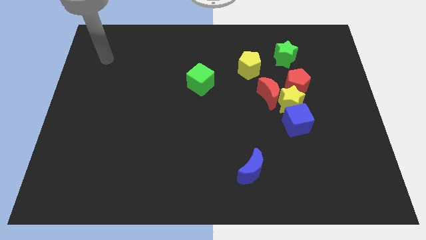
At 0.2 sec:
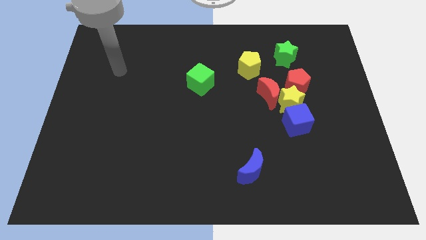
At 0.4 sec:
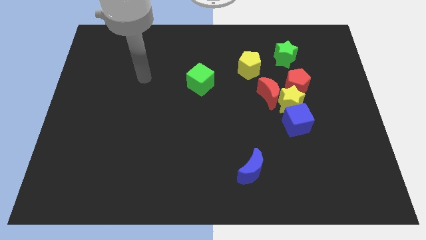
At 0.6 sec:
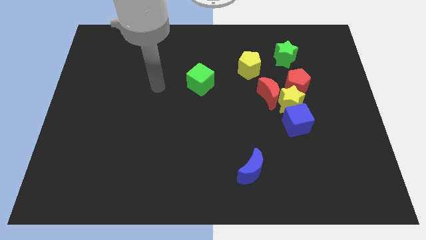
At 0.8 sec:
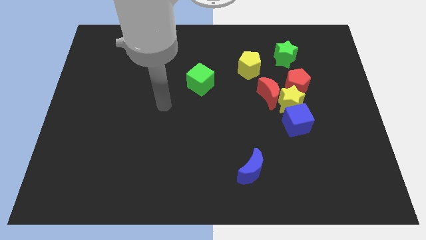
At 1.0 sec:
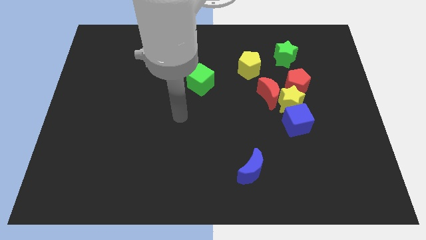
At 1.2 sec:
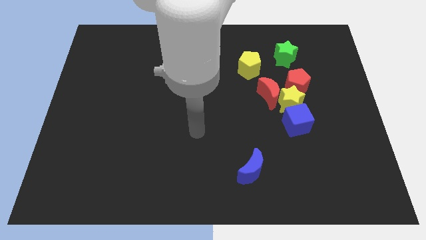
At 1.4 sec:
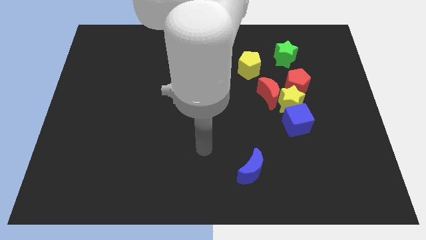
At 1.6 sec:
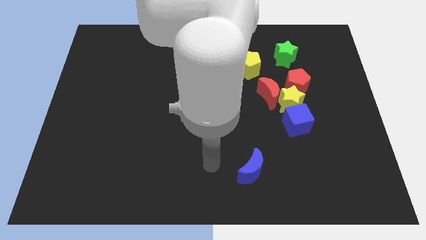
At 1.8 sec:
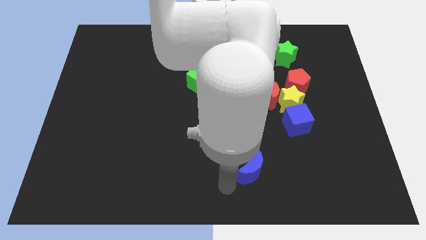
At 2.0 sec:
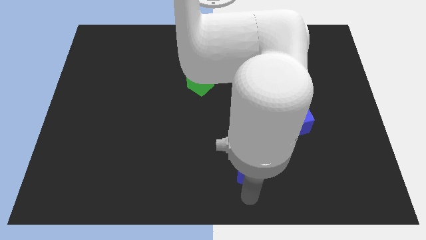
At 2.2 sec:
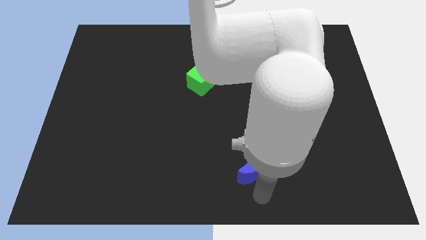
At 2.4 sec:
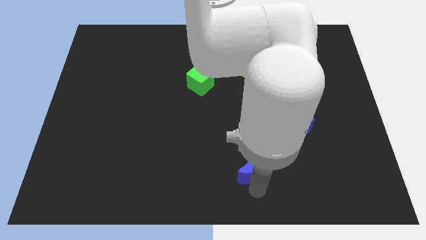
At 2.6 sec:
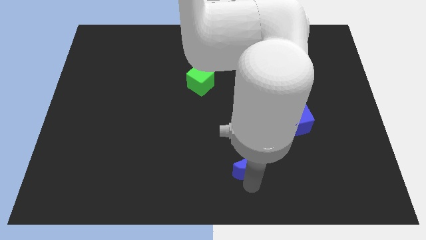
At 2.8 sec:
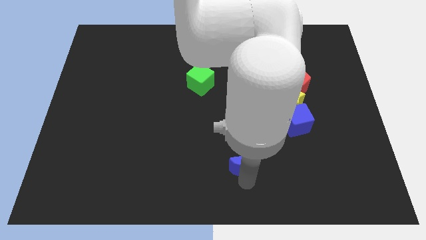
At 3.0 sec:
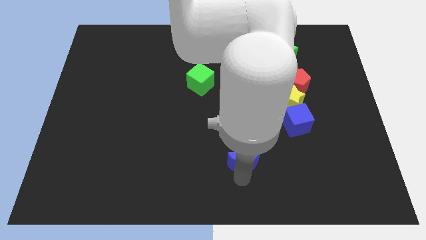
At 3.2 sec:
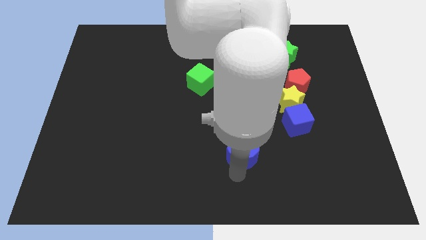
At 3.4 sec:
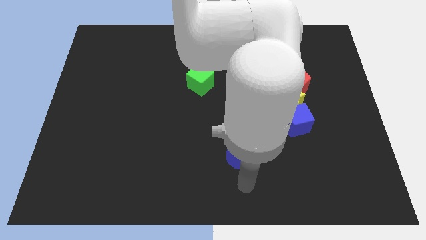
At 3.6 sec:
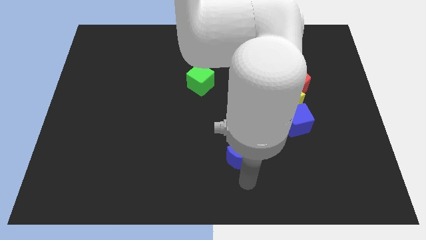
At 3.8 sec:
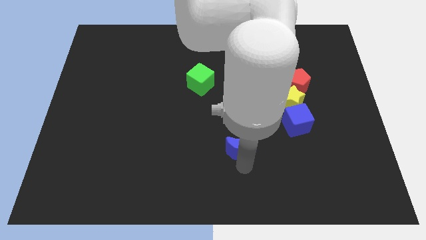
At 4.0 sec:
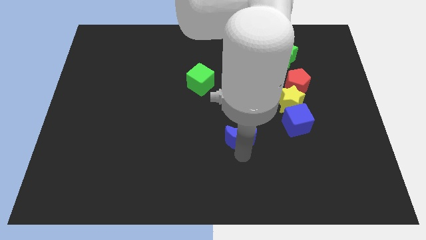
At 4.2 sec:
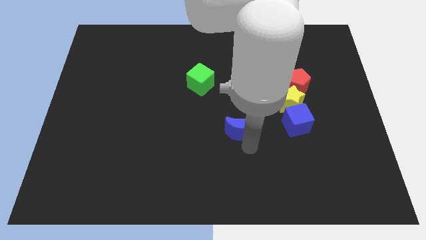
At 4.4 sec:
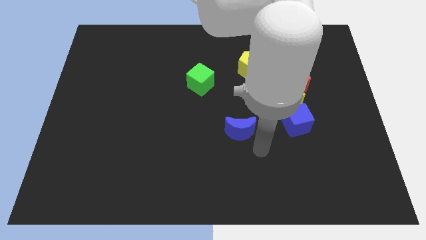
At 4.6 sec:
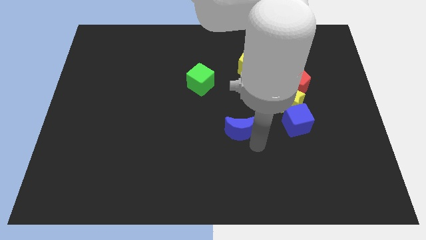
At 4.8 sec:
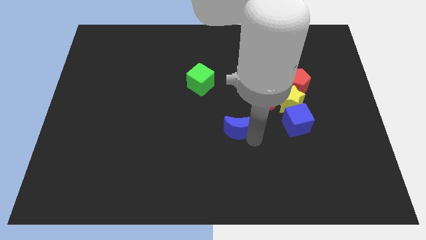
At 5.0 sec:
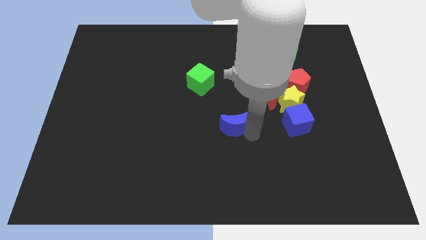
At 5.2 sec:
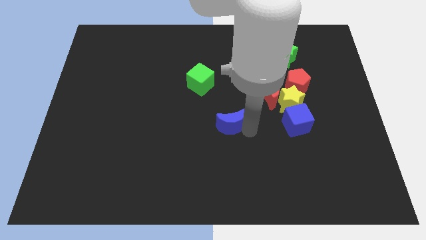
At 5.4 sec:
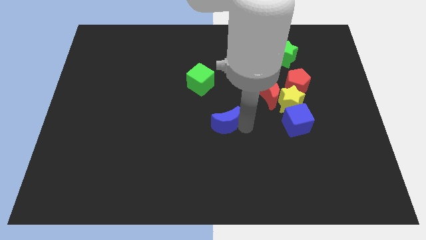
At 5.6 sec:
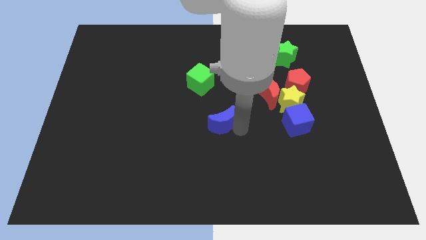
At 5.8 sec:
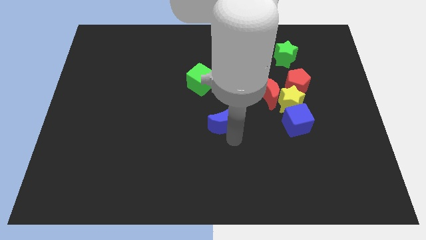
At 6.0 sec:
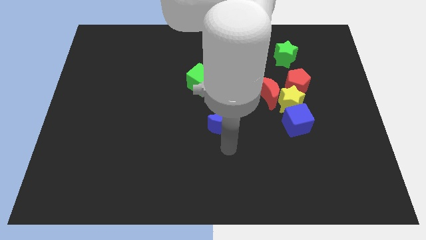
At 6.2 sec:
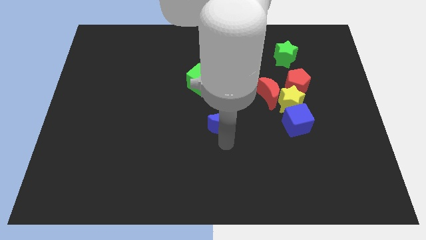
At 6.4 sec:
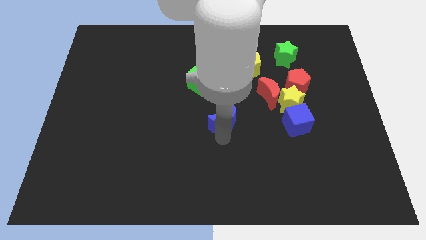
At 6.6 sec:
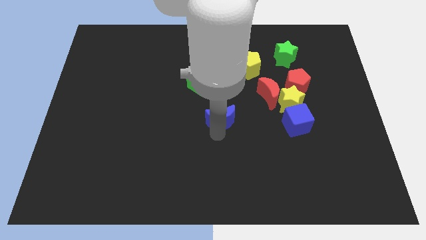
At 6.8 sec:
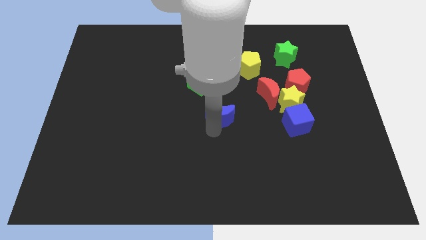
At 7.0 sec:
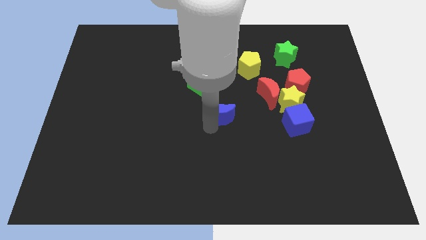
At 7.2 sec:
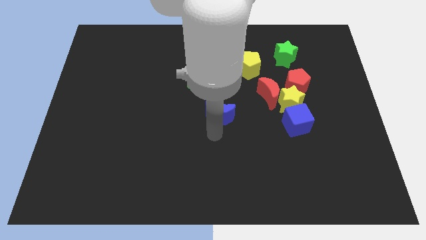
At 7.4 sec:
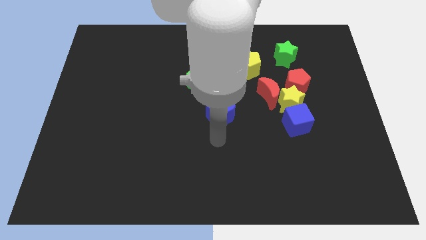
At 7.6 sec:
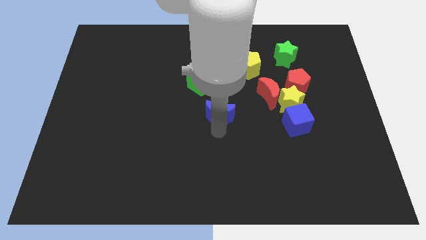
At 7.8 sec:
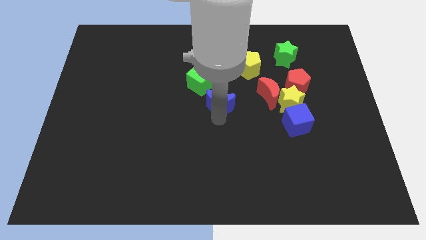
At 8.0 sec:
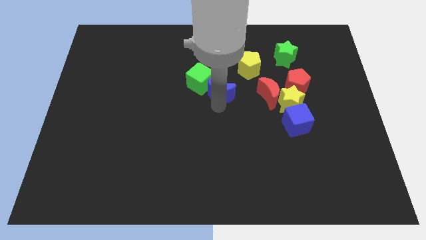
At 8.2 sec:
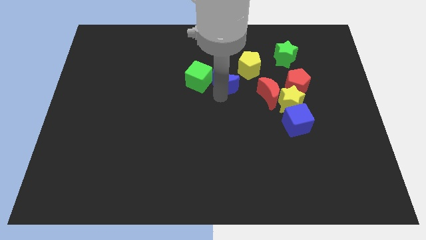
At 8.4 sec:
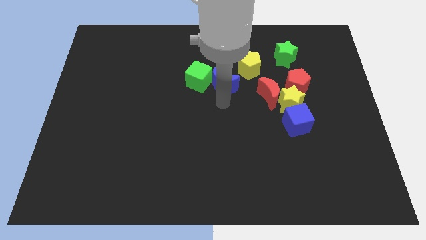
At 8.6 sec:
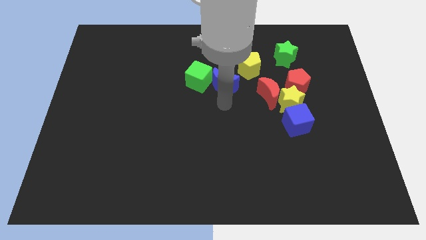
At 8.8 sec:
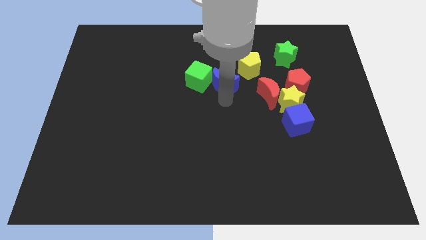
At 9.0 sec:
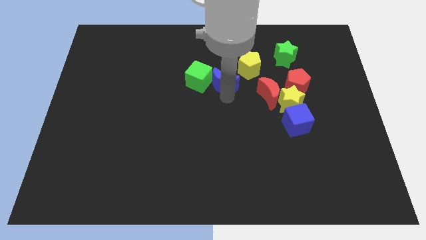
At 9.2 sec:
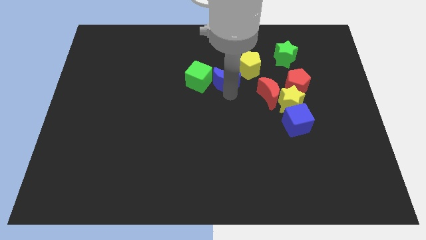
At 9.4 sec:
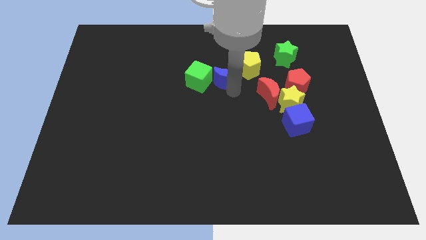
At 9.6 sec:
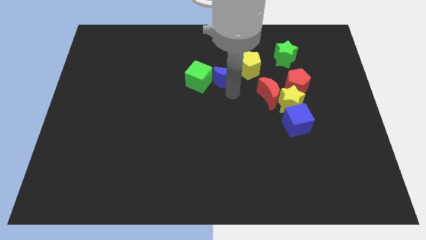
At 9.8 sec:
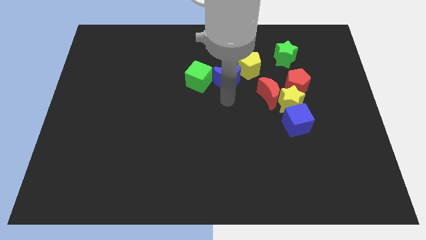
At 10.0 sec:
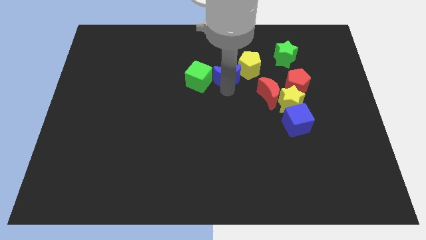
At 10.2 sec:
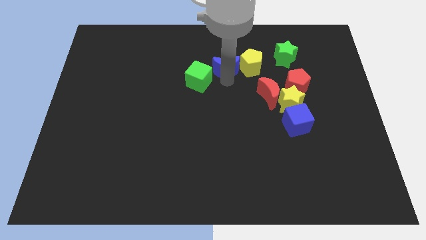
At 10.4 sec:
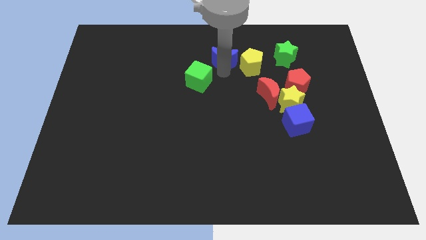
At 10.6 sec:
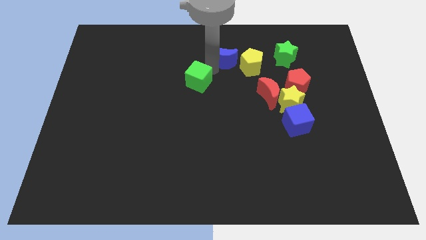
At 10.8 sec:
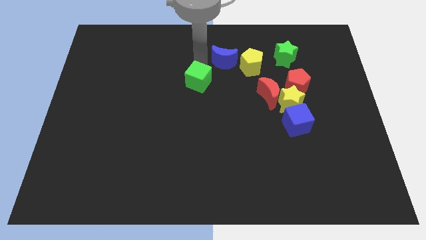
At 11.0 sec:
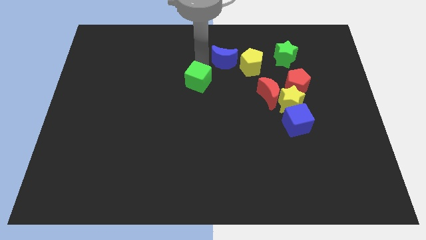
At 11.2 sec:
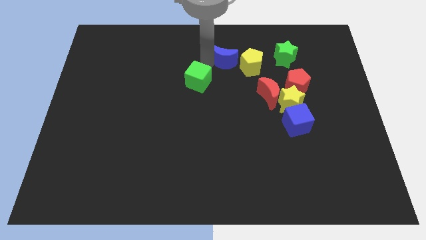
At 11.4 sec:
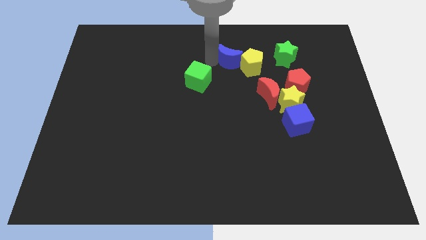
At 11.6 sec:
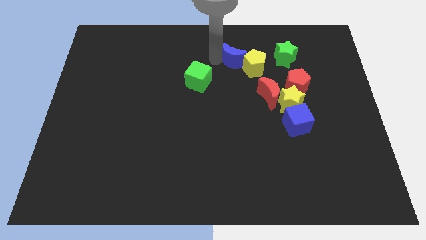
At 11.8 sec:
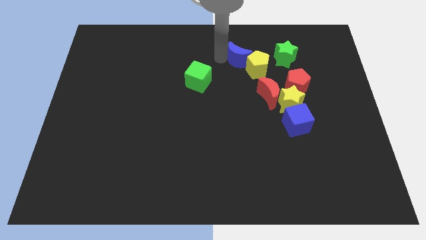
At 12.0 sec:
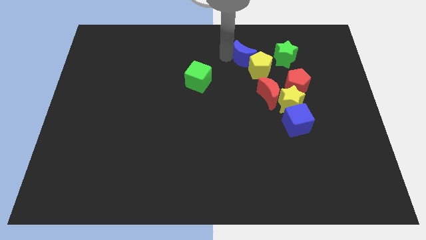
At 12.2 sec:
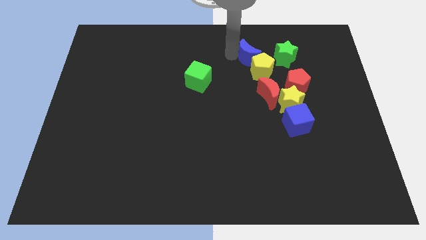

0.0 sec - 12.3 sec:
push the blue moon to the top side of the red moon

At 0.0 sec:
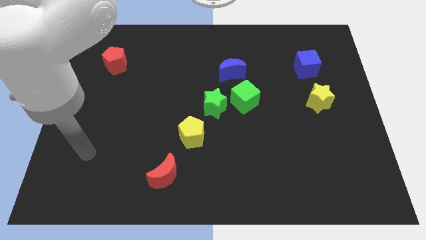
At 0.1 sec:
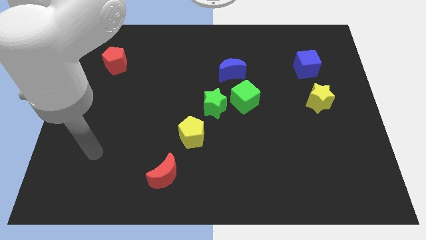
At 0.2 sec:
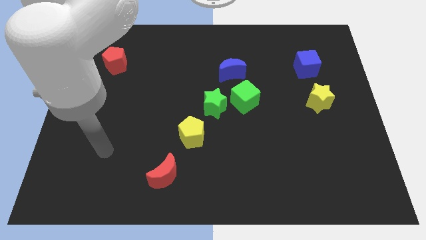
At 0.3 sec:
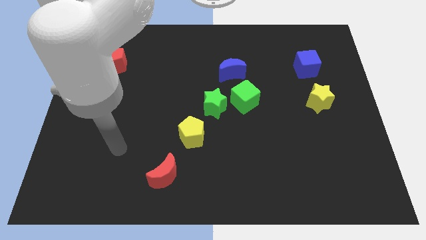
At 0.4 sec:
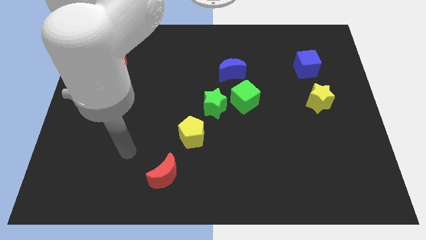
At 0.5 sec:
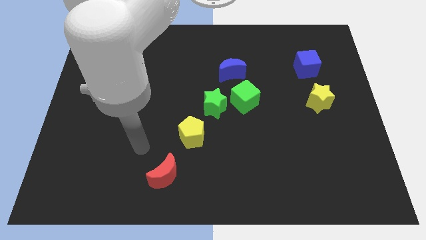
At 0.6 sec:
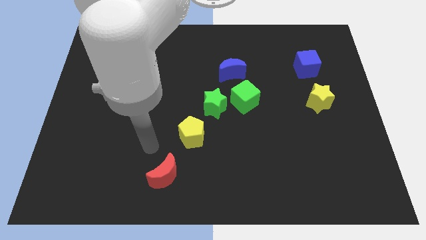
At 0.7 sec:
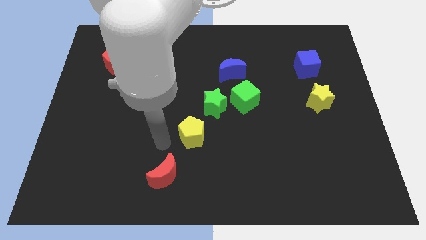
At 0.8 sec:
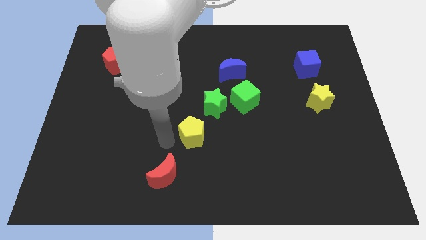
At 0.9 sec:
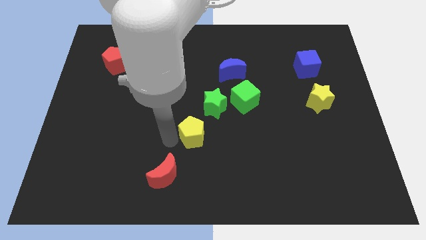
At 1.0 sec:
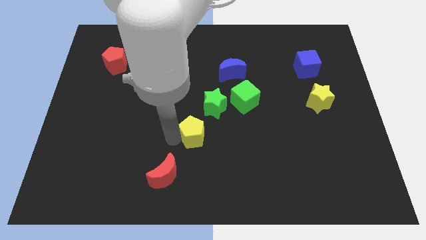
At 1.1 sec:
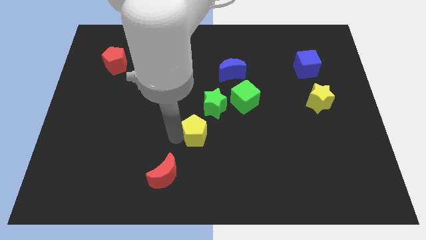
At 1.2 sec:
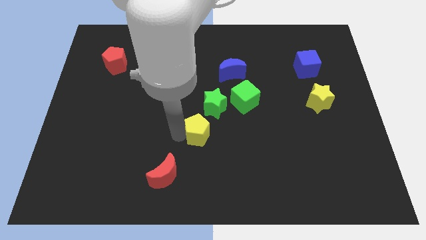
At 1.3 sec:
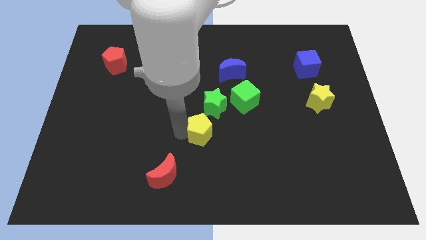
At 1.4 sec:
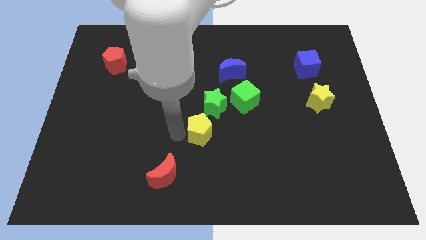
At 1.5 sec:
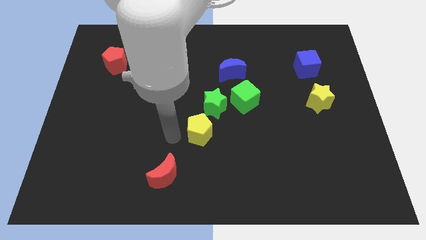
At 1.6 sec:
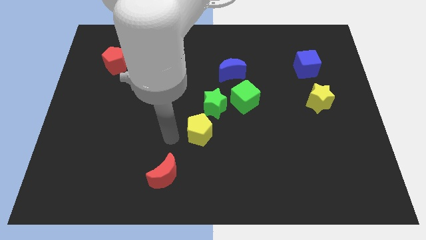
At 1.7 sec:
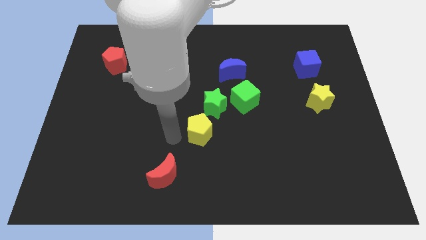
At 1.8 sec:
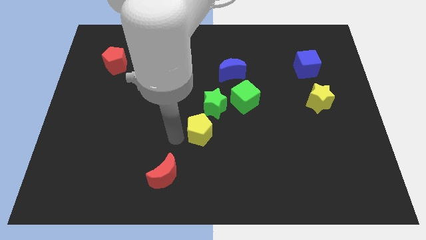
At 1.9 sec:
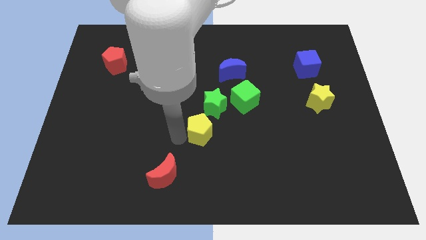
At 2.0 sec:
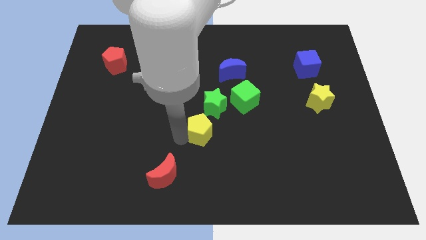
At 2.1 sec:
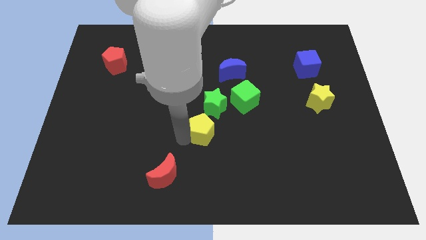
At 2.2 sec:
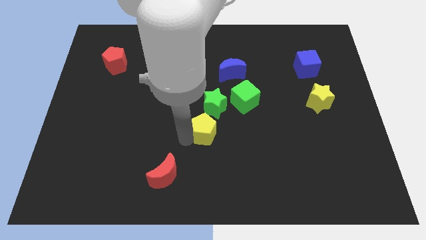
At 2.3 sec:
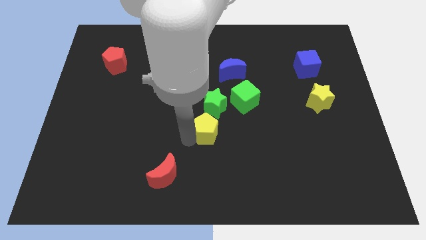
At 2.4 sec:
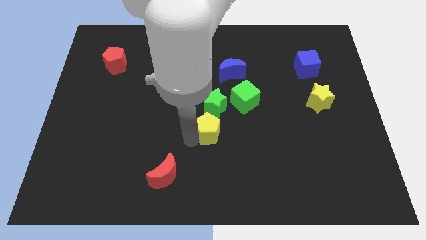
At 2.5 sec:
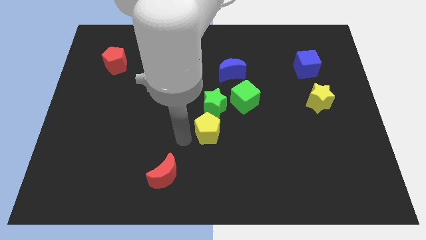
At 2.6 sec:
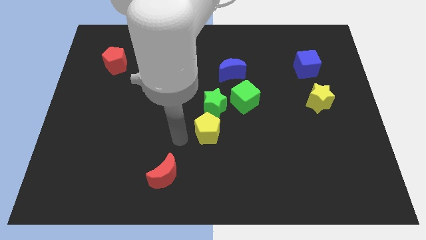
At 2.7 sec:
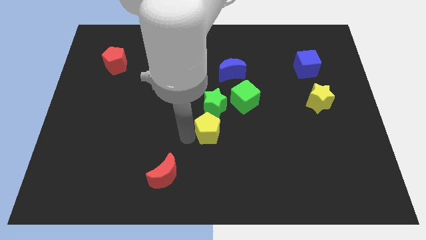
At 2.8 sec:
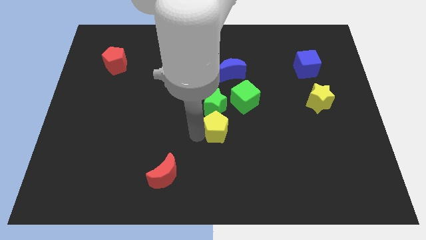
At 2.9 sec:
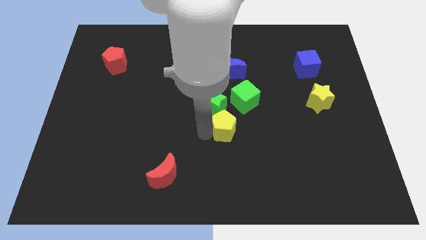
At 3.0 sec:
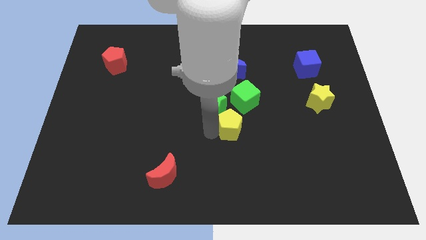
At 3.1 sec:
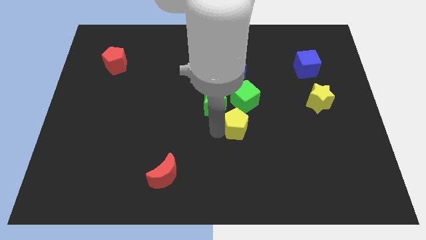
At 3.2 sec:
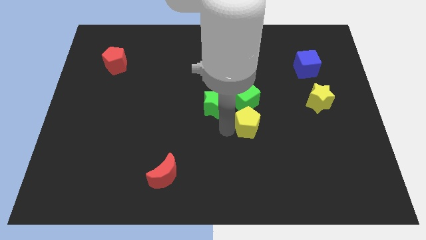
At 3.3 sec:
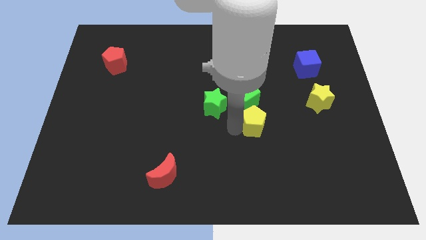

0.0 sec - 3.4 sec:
put the yellow pentagon diagonally down and to the right of the green cube
